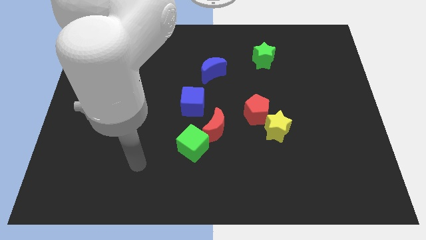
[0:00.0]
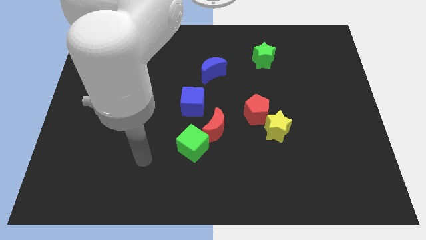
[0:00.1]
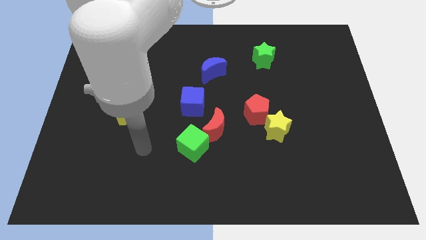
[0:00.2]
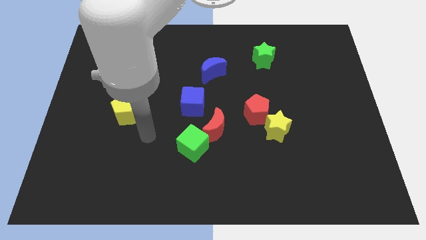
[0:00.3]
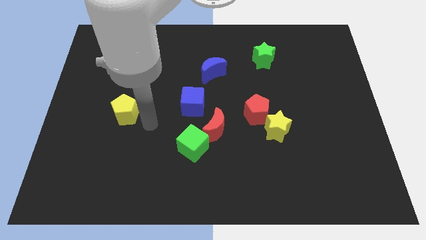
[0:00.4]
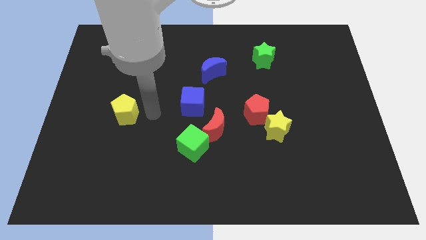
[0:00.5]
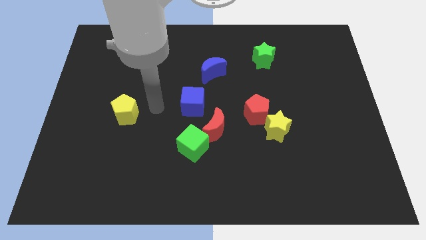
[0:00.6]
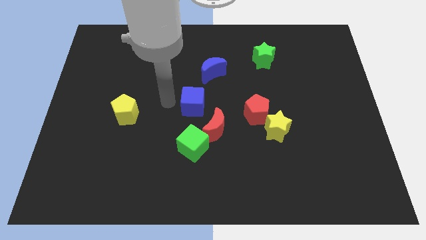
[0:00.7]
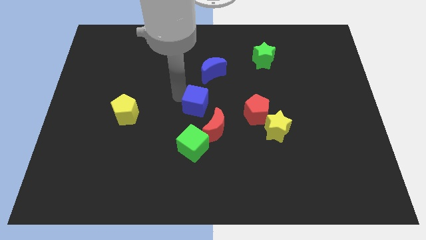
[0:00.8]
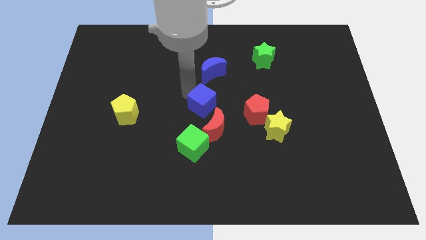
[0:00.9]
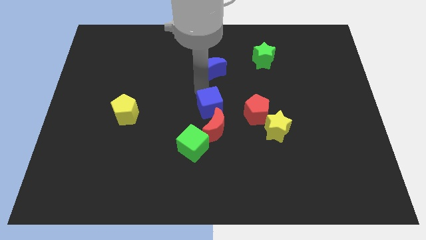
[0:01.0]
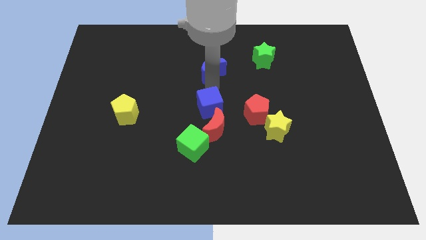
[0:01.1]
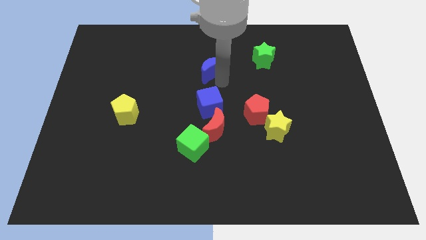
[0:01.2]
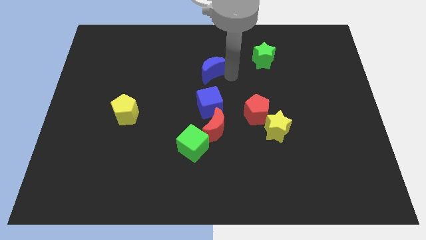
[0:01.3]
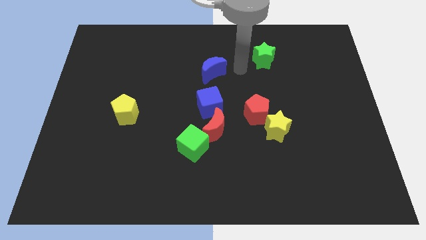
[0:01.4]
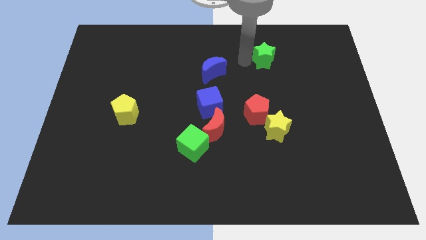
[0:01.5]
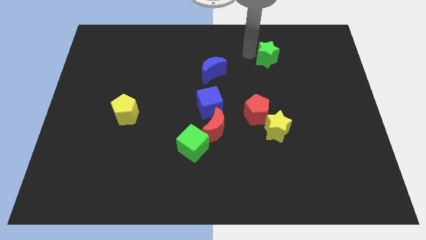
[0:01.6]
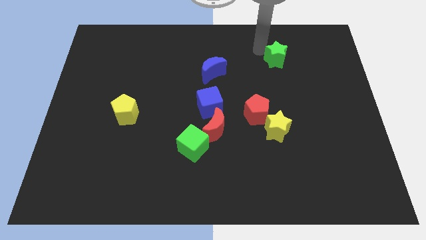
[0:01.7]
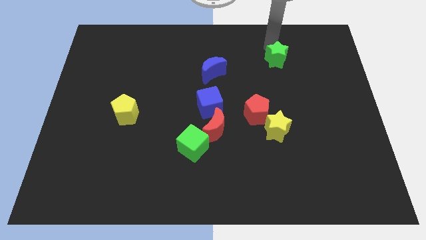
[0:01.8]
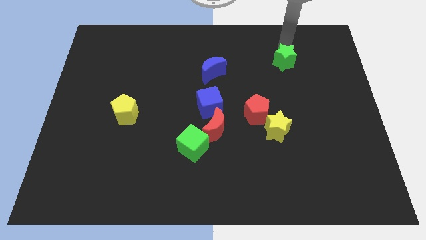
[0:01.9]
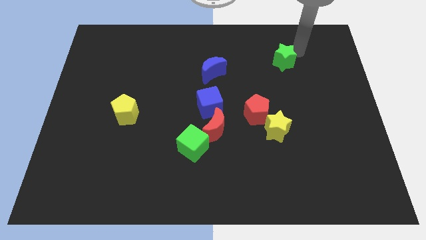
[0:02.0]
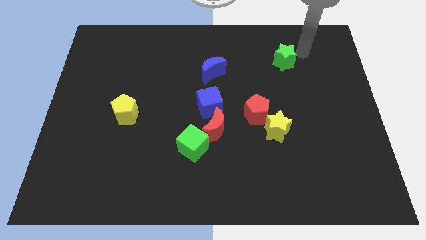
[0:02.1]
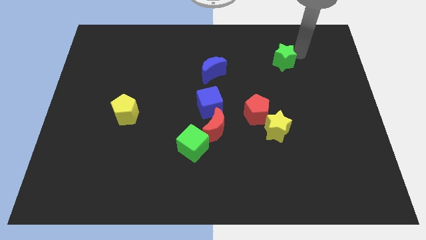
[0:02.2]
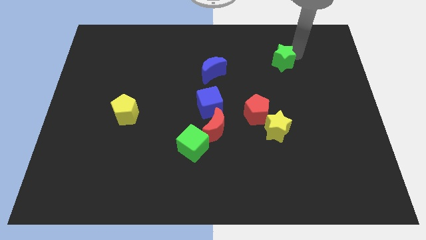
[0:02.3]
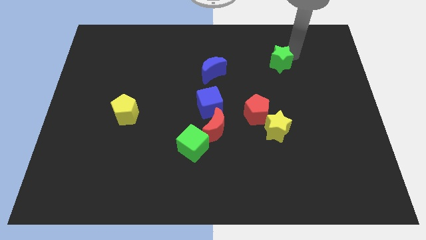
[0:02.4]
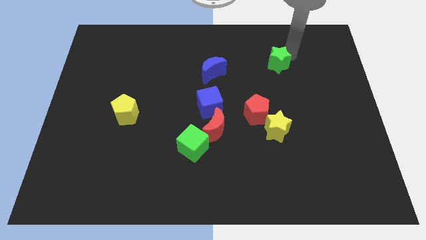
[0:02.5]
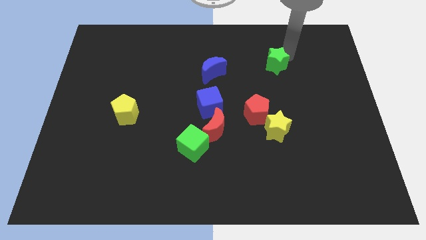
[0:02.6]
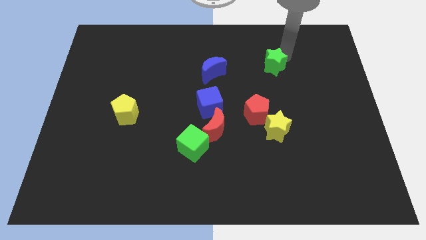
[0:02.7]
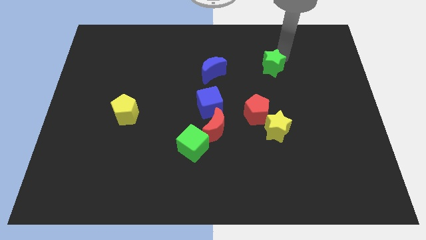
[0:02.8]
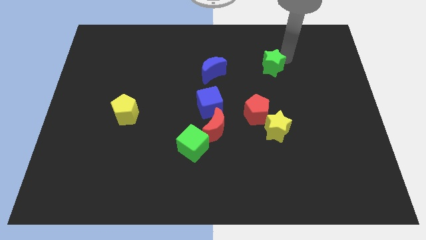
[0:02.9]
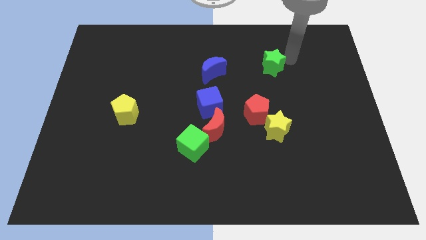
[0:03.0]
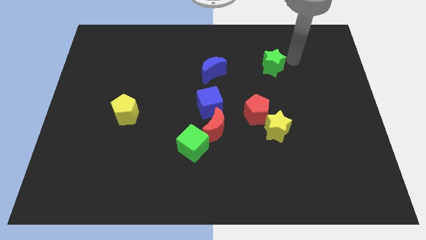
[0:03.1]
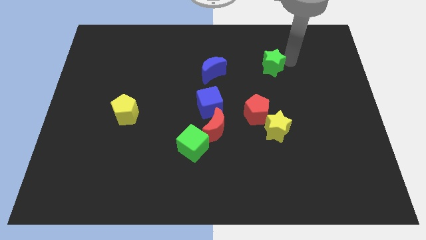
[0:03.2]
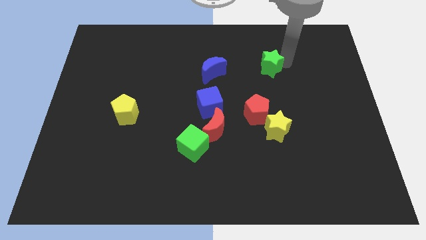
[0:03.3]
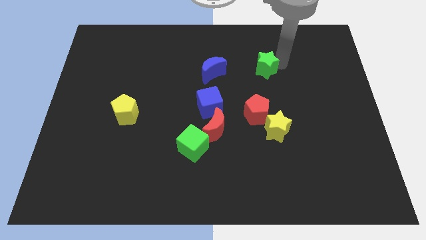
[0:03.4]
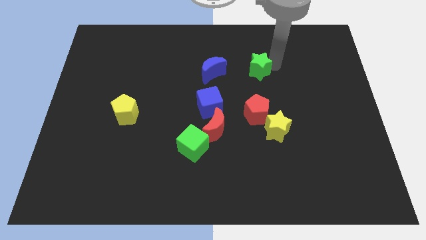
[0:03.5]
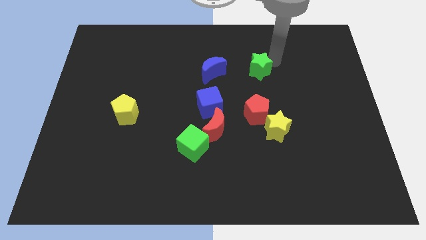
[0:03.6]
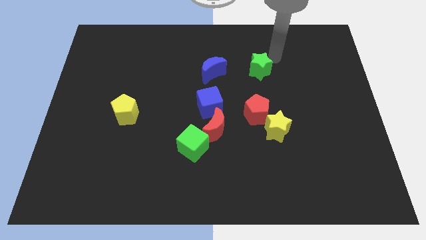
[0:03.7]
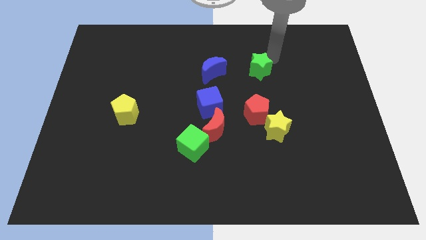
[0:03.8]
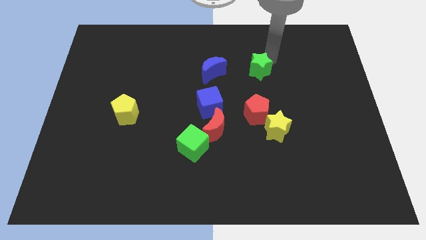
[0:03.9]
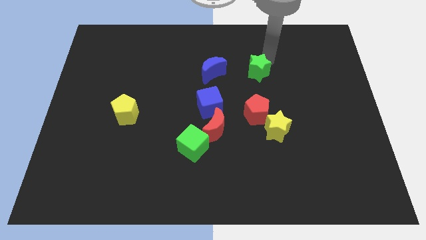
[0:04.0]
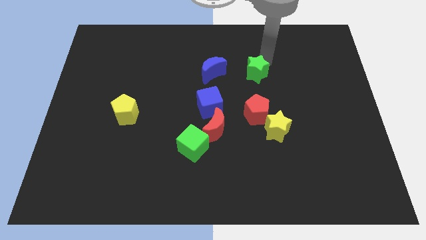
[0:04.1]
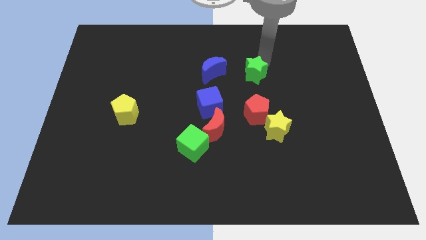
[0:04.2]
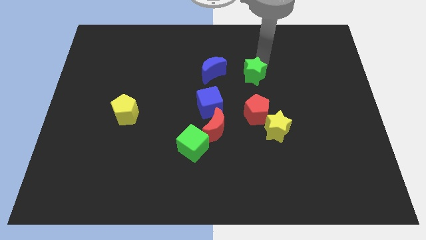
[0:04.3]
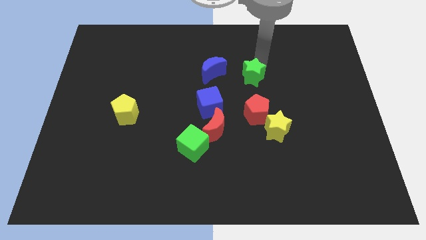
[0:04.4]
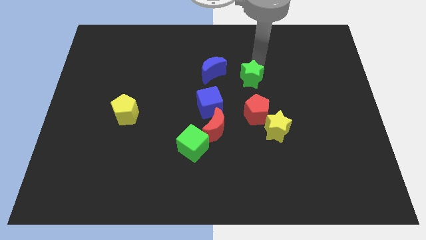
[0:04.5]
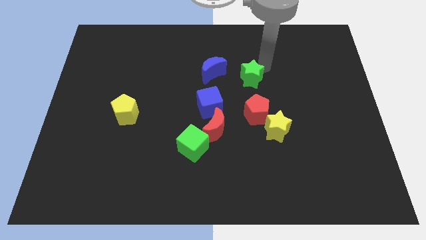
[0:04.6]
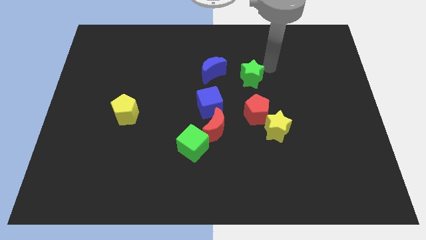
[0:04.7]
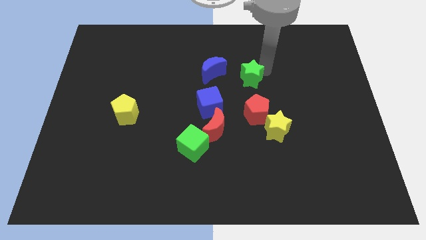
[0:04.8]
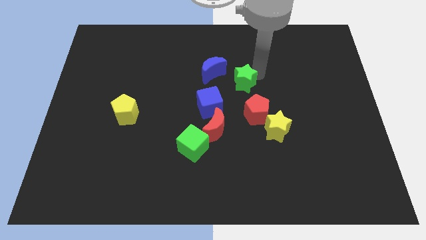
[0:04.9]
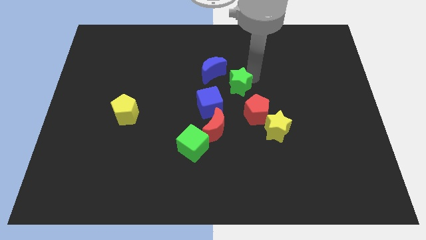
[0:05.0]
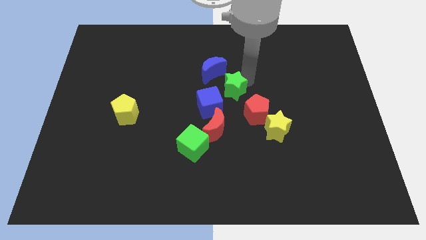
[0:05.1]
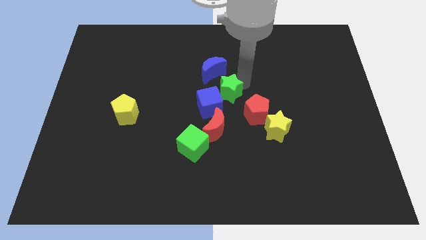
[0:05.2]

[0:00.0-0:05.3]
push the green star next to the blue cube

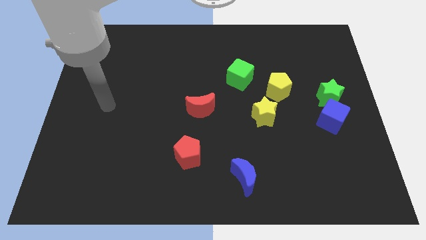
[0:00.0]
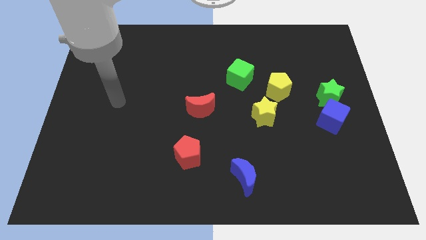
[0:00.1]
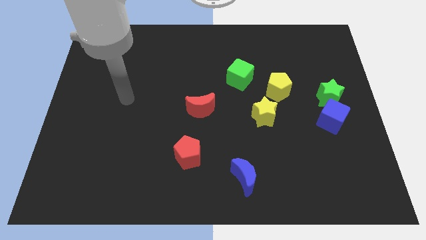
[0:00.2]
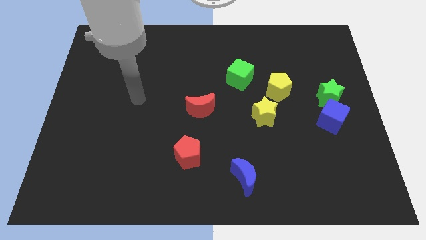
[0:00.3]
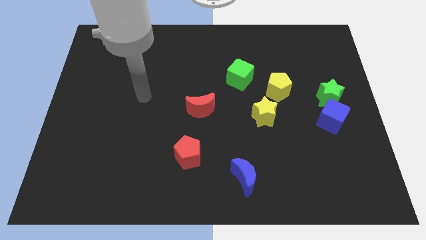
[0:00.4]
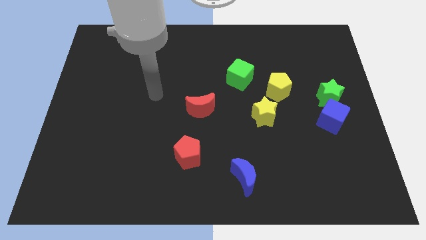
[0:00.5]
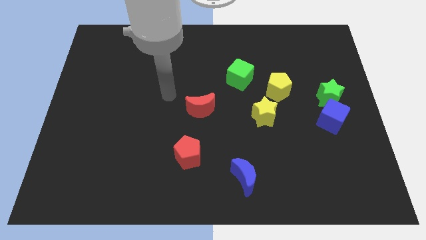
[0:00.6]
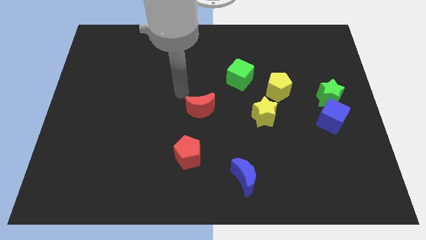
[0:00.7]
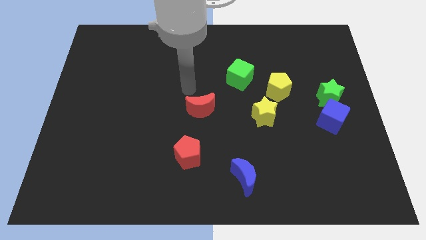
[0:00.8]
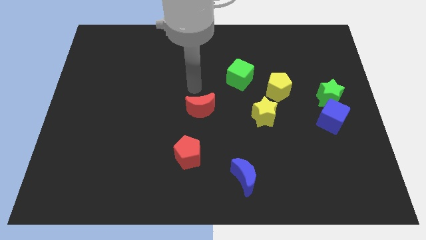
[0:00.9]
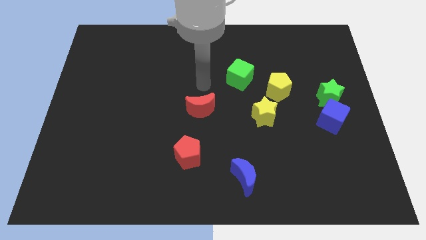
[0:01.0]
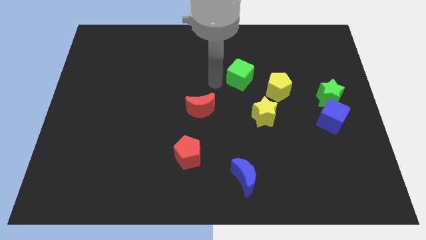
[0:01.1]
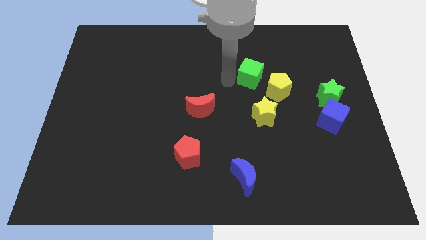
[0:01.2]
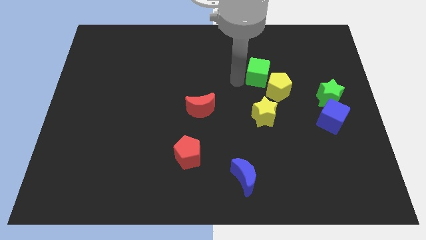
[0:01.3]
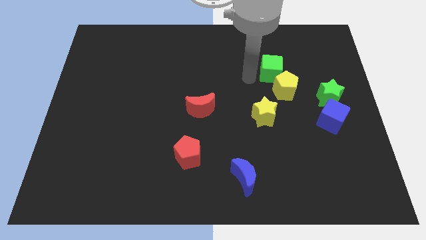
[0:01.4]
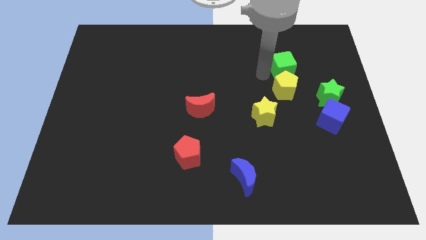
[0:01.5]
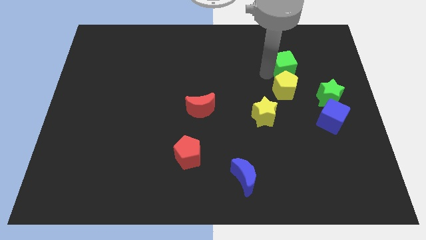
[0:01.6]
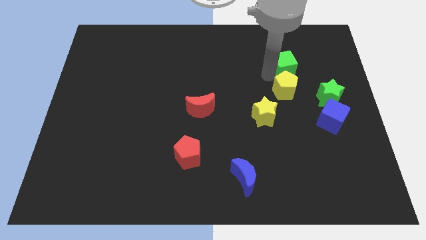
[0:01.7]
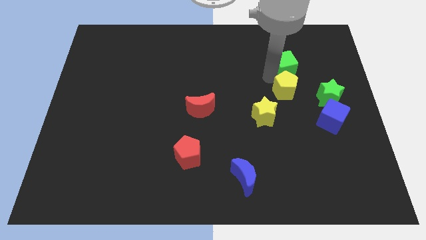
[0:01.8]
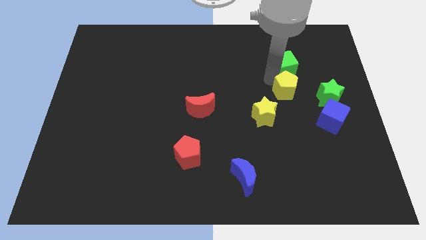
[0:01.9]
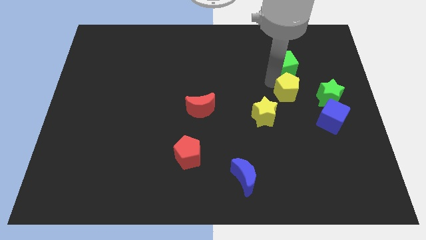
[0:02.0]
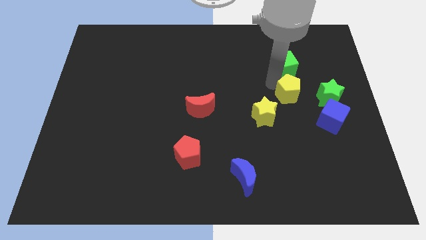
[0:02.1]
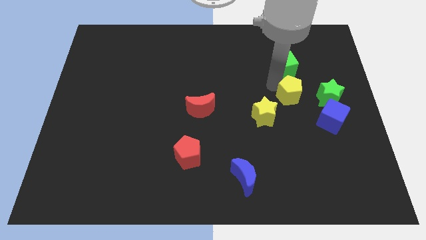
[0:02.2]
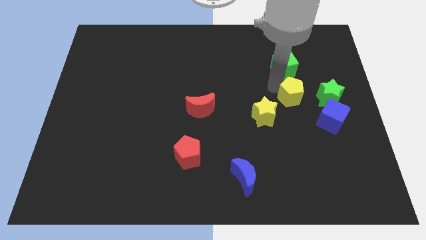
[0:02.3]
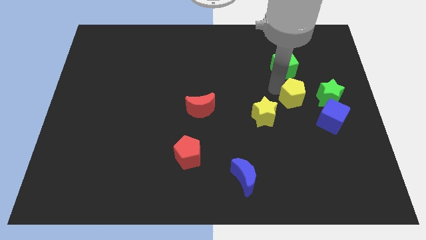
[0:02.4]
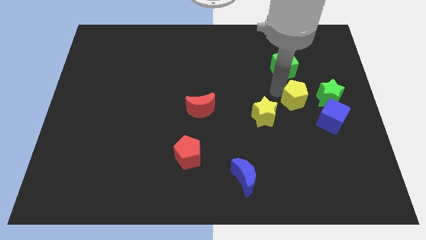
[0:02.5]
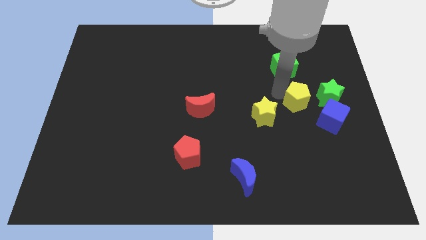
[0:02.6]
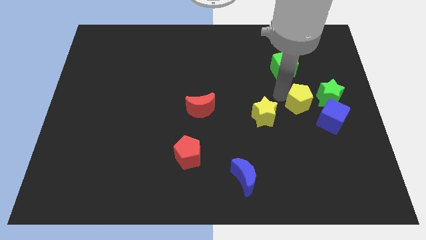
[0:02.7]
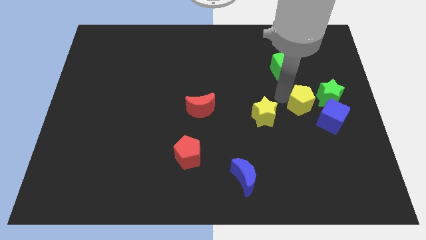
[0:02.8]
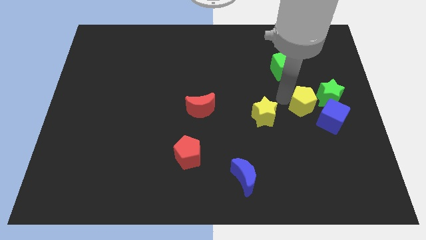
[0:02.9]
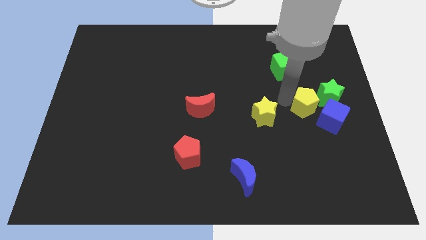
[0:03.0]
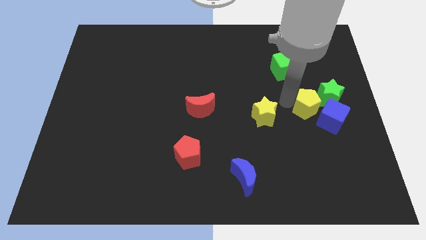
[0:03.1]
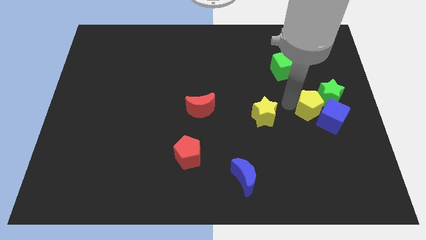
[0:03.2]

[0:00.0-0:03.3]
push the yellow pentagon to the blue cube
